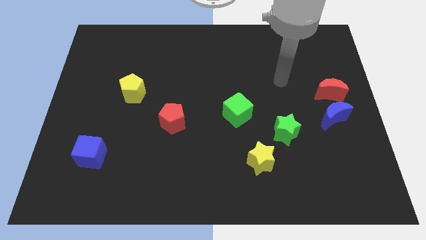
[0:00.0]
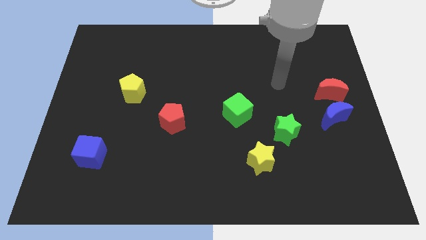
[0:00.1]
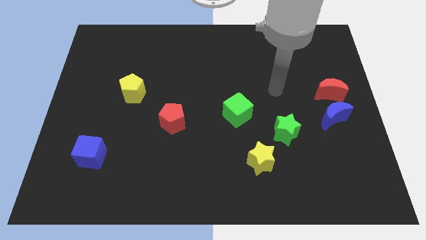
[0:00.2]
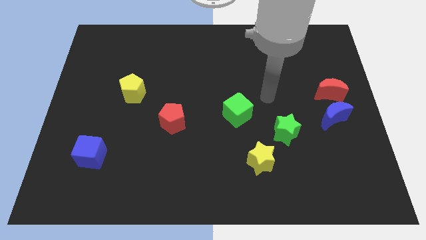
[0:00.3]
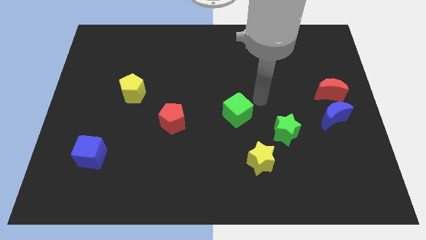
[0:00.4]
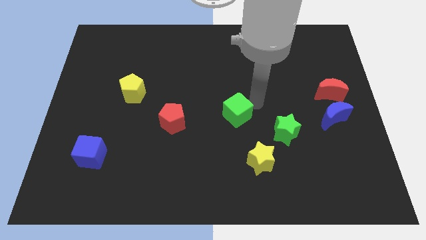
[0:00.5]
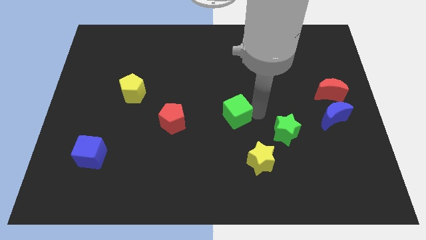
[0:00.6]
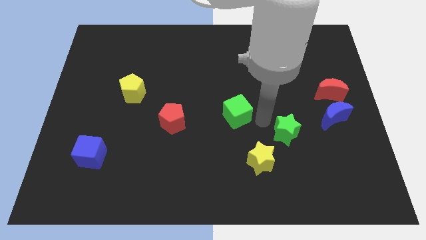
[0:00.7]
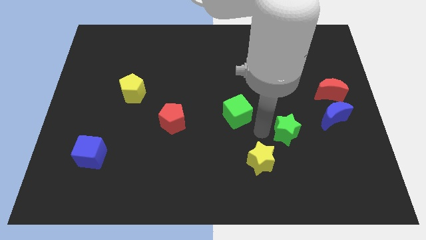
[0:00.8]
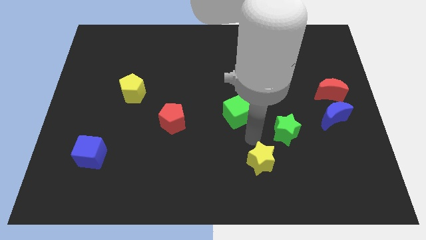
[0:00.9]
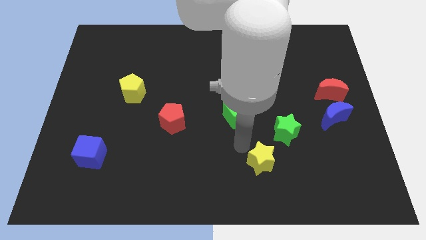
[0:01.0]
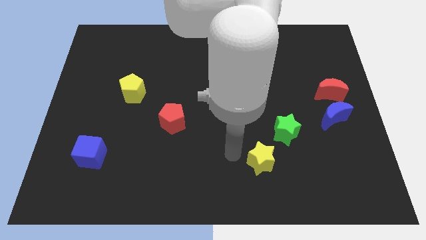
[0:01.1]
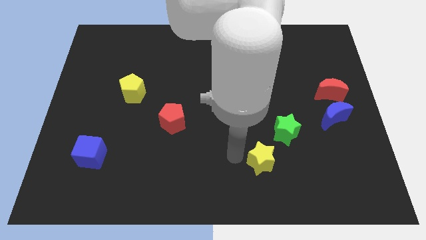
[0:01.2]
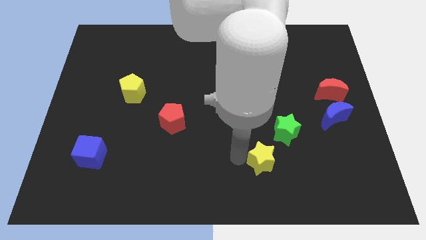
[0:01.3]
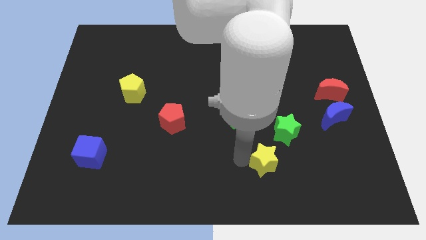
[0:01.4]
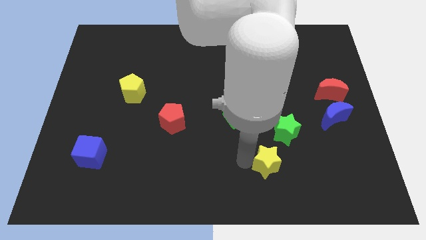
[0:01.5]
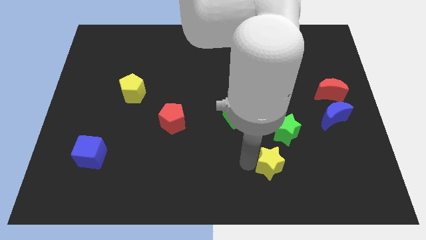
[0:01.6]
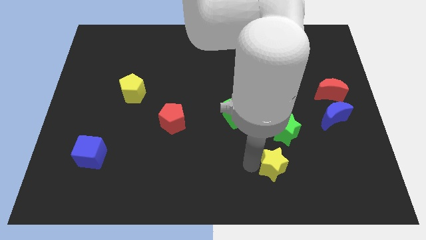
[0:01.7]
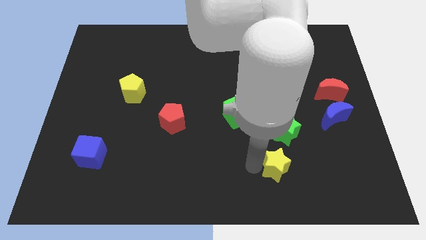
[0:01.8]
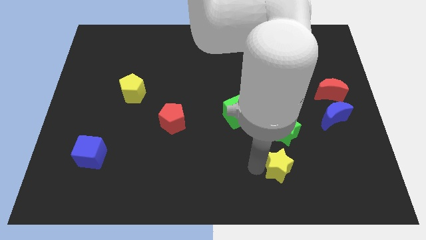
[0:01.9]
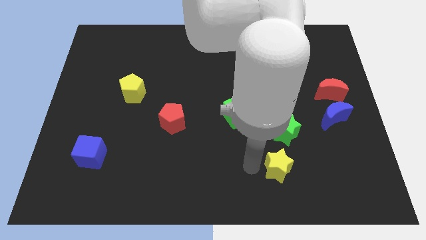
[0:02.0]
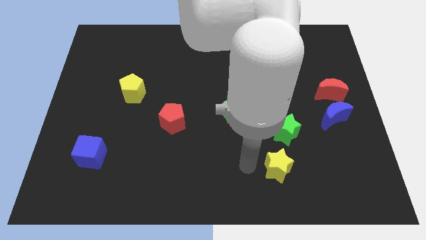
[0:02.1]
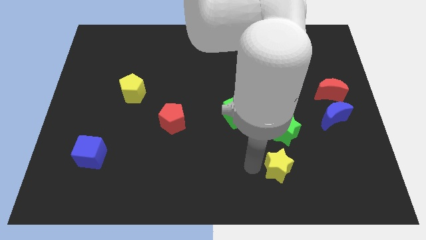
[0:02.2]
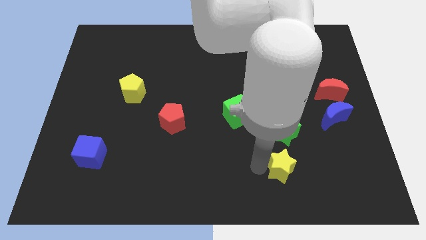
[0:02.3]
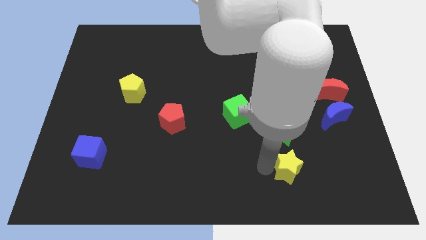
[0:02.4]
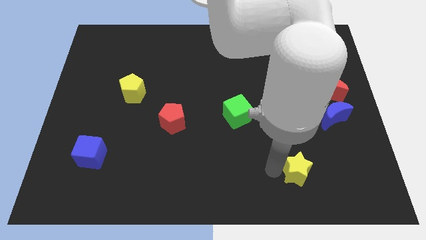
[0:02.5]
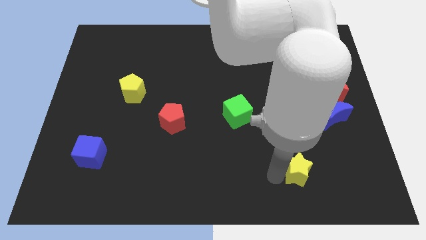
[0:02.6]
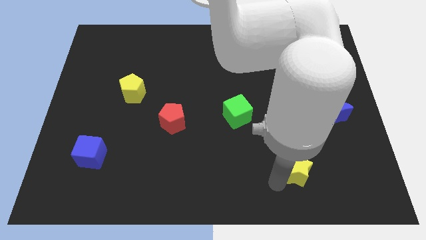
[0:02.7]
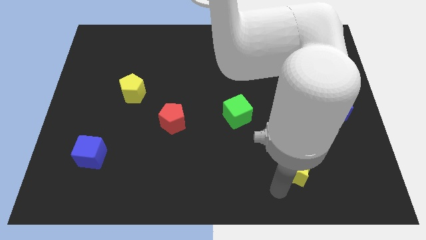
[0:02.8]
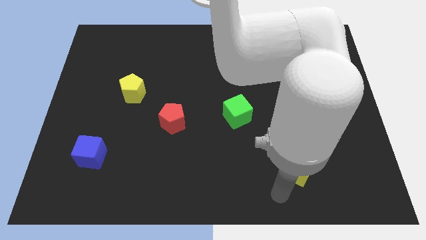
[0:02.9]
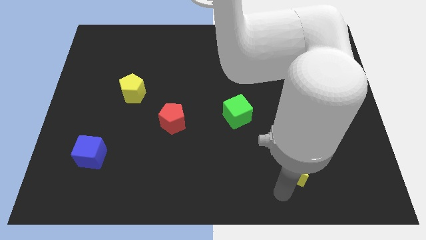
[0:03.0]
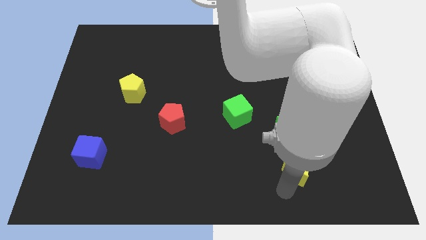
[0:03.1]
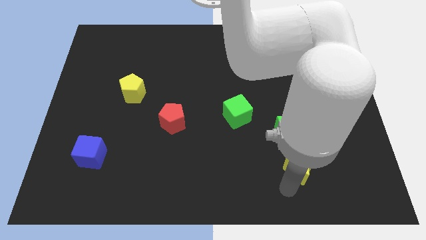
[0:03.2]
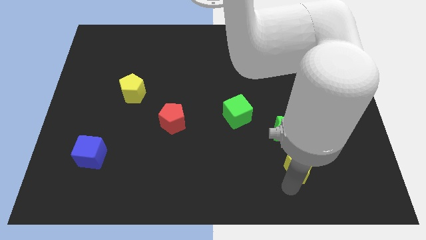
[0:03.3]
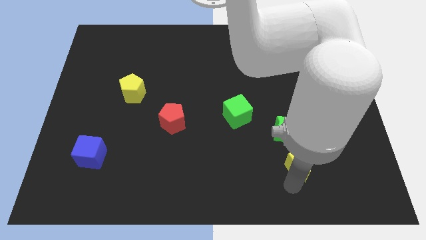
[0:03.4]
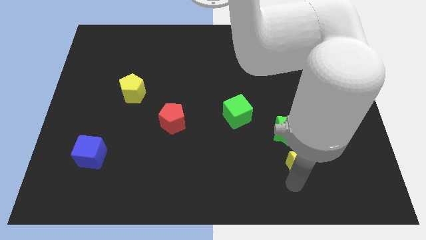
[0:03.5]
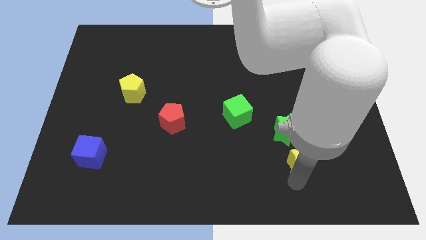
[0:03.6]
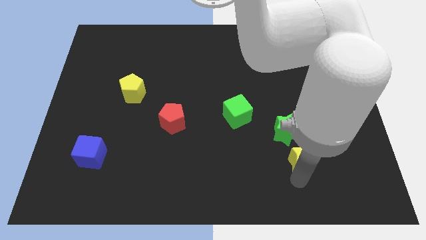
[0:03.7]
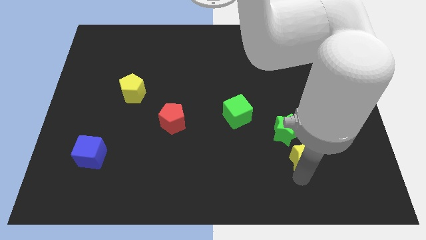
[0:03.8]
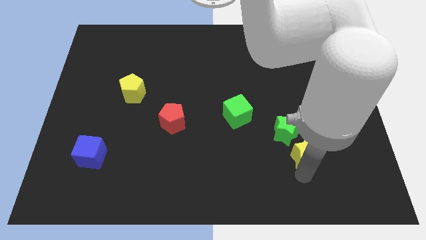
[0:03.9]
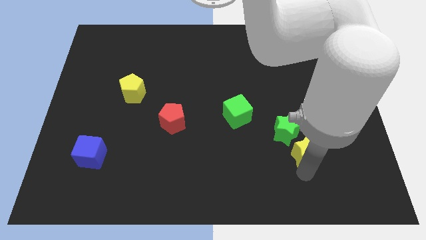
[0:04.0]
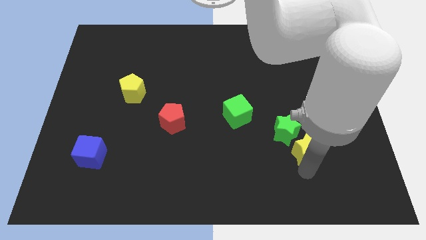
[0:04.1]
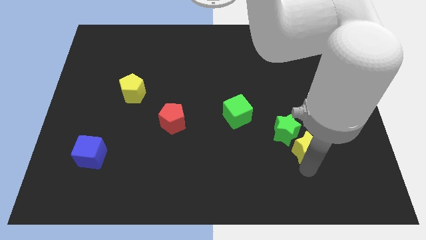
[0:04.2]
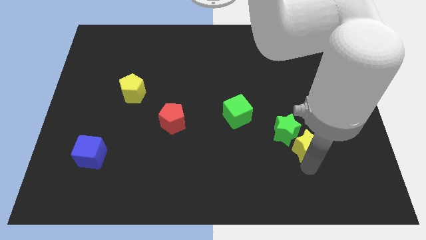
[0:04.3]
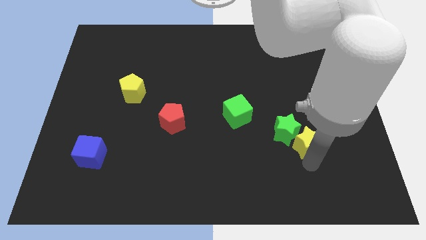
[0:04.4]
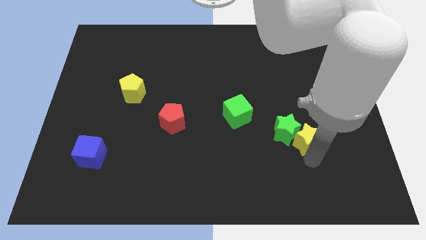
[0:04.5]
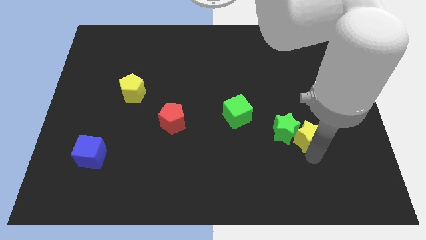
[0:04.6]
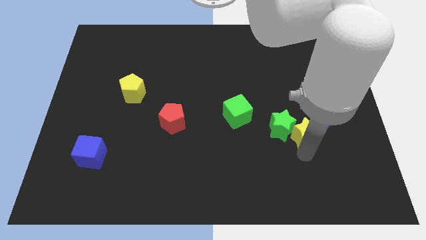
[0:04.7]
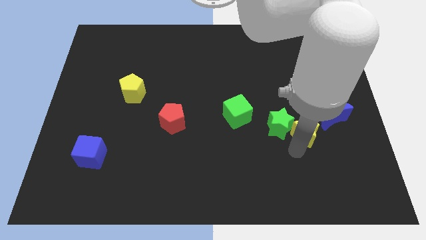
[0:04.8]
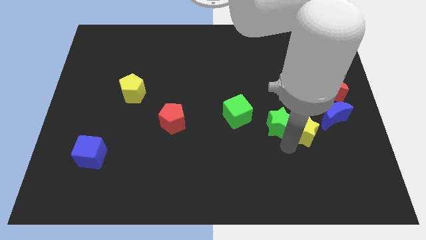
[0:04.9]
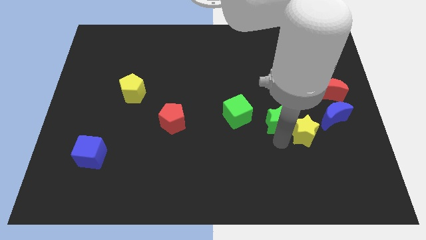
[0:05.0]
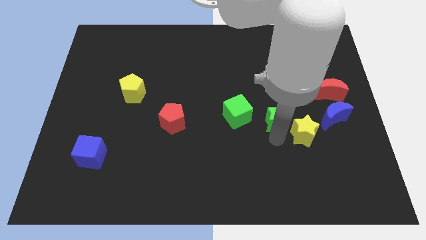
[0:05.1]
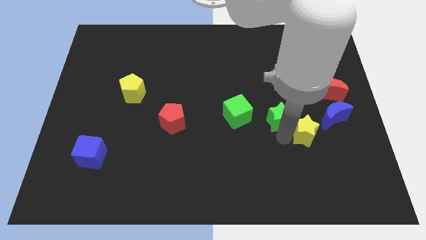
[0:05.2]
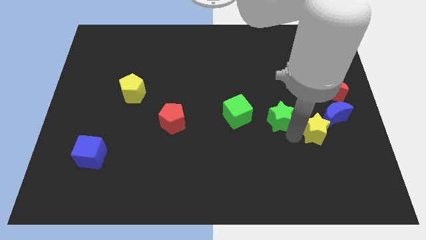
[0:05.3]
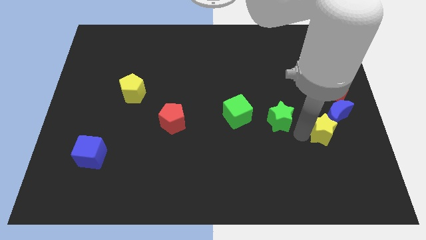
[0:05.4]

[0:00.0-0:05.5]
put the yellow star below the red moon

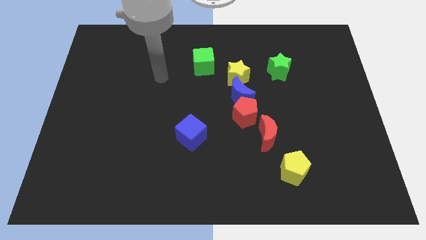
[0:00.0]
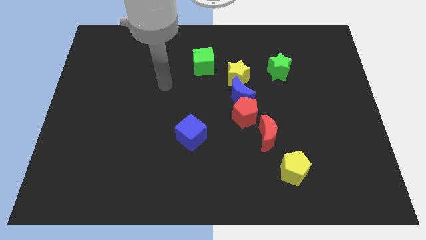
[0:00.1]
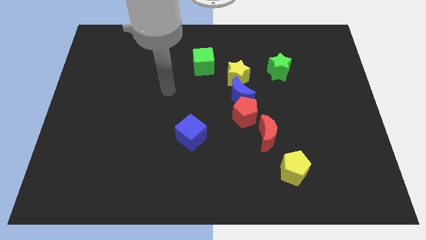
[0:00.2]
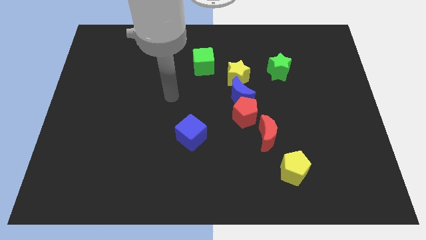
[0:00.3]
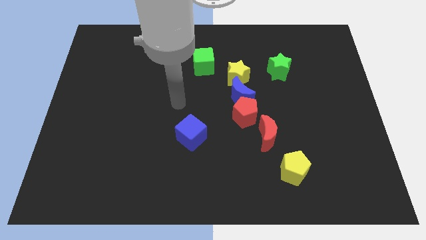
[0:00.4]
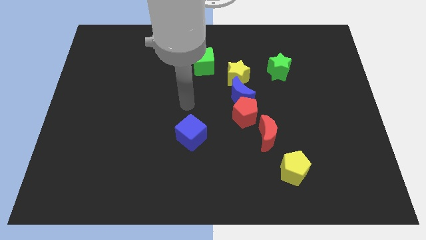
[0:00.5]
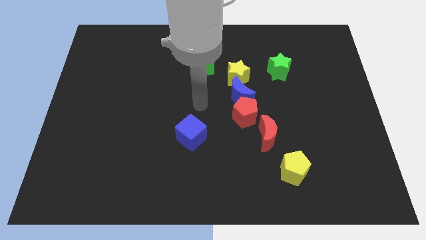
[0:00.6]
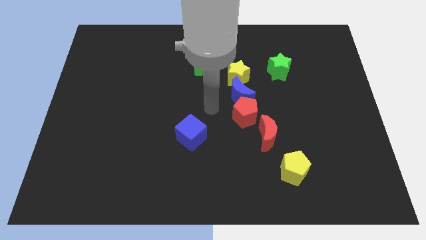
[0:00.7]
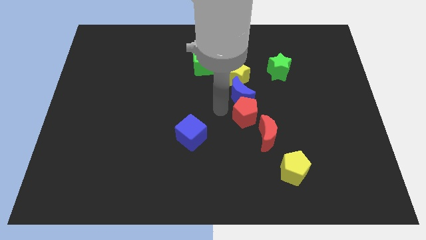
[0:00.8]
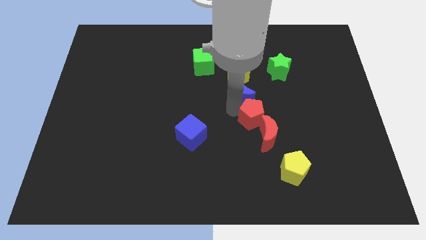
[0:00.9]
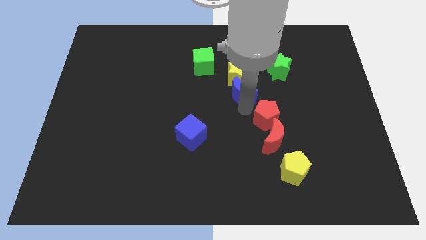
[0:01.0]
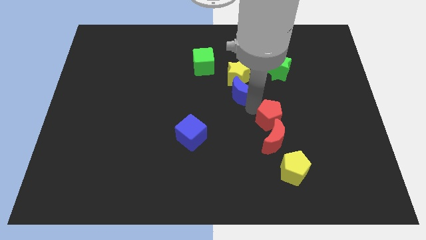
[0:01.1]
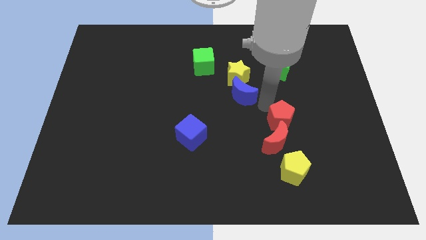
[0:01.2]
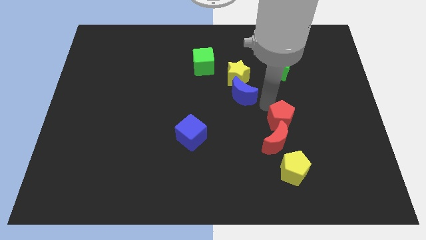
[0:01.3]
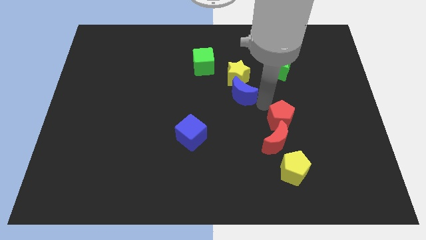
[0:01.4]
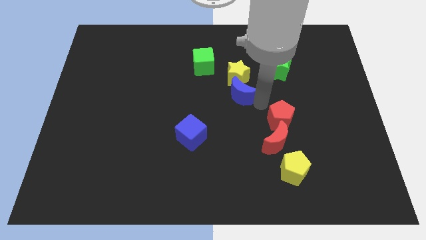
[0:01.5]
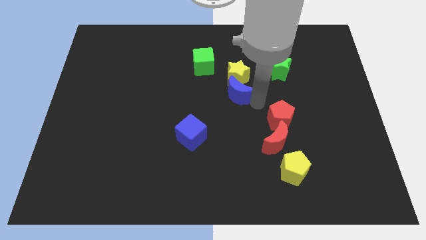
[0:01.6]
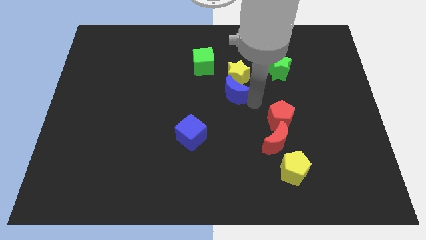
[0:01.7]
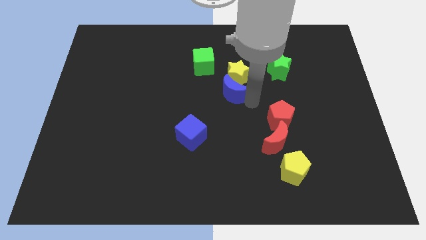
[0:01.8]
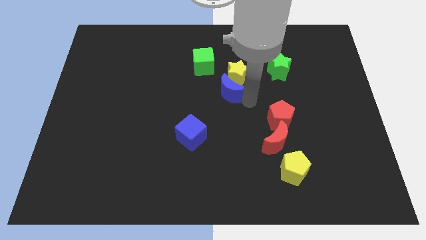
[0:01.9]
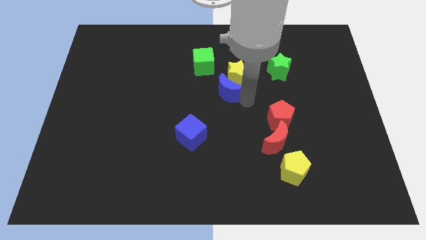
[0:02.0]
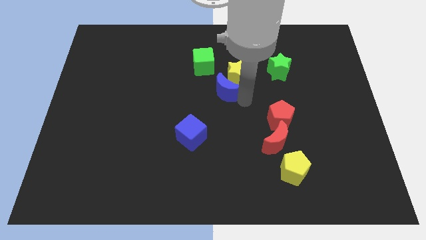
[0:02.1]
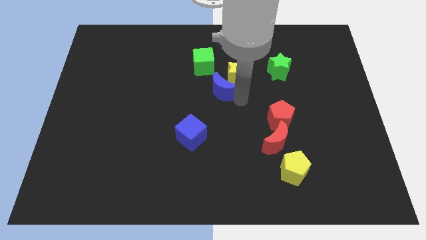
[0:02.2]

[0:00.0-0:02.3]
move the blue moon to the left of the yellow star
